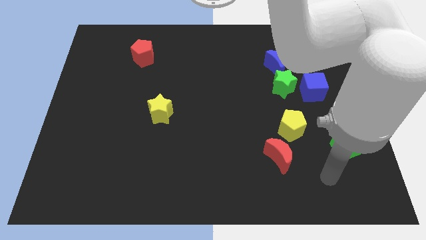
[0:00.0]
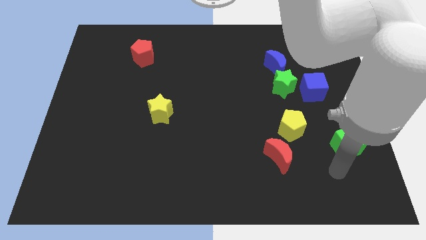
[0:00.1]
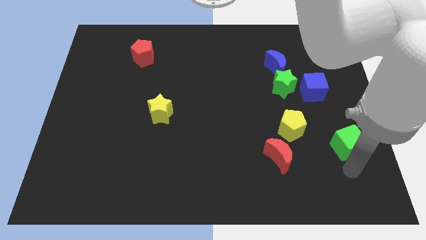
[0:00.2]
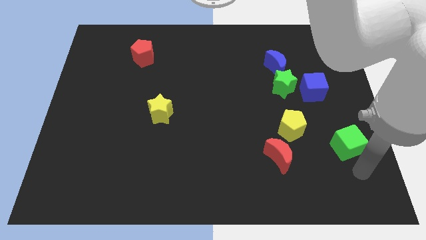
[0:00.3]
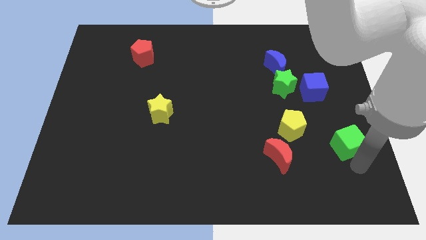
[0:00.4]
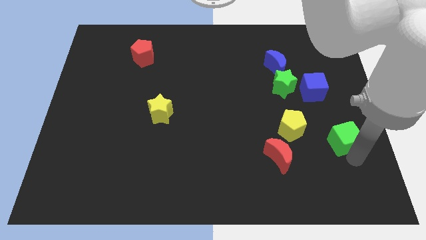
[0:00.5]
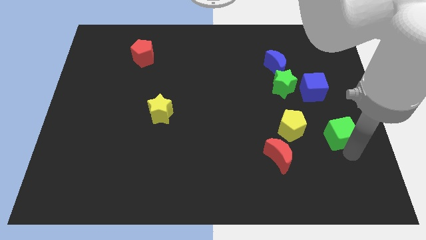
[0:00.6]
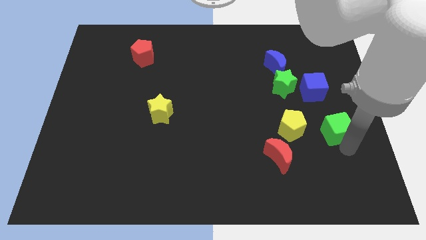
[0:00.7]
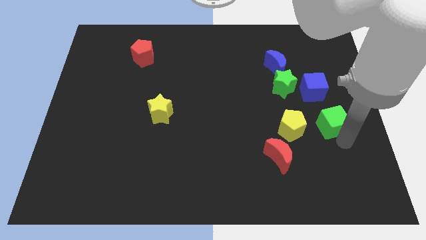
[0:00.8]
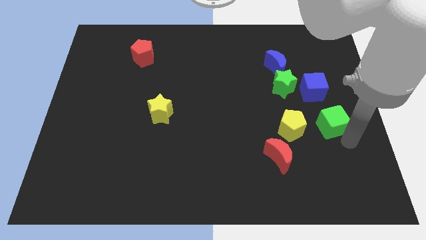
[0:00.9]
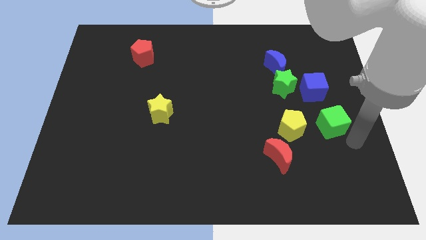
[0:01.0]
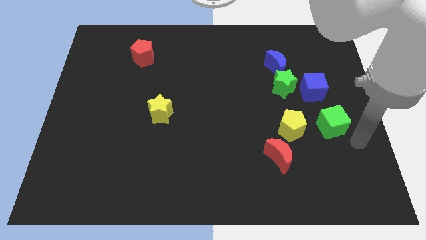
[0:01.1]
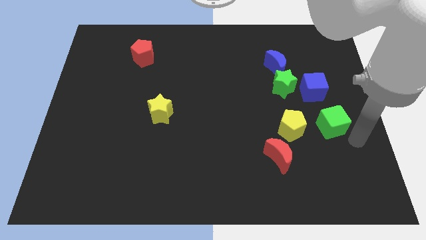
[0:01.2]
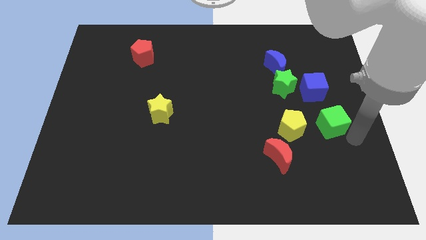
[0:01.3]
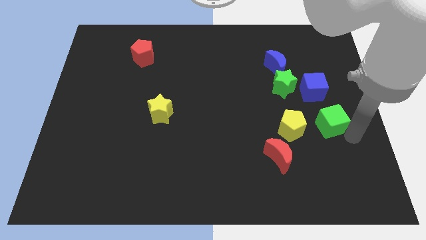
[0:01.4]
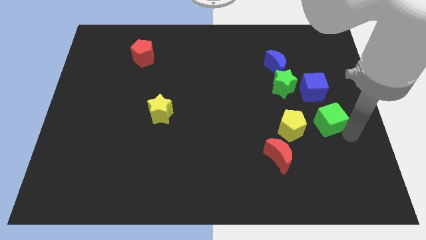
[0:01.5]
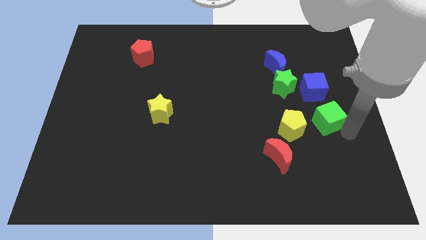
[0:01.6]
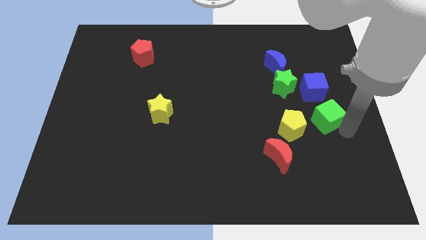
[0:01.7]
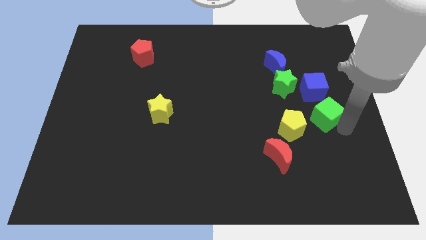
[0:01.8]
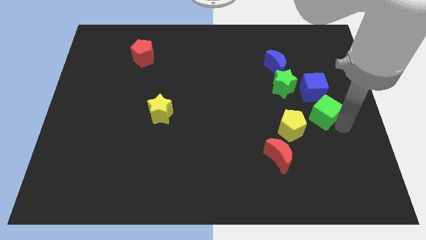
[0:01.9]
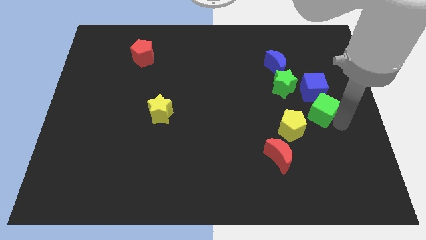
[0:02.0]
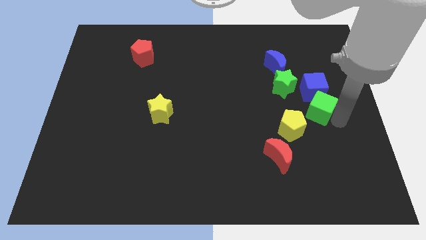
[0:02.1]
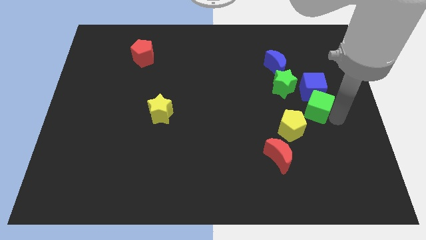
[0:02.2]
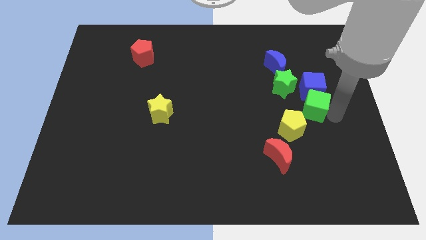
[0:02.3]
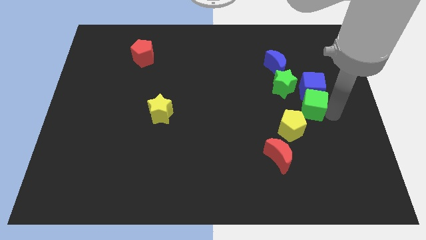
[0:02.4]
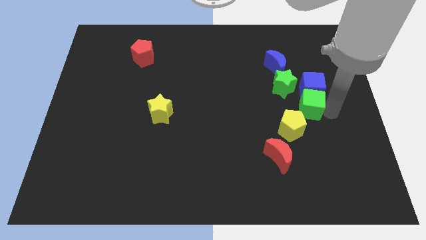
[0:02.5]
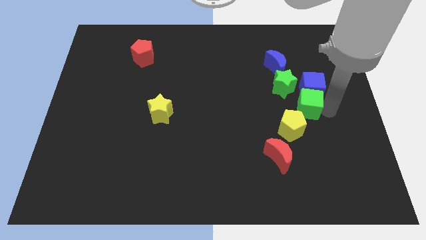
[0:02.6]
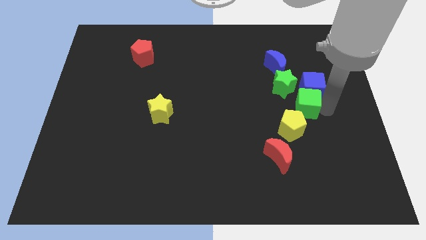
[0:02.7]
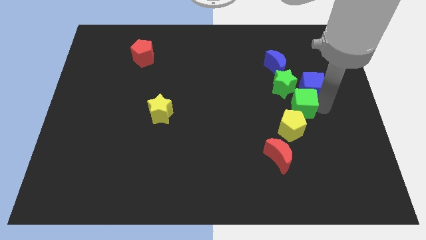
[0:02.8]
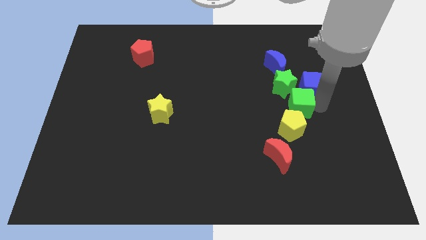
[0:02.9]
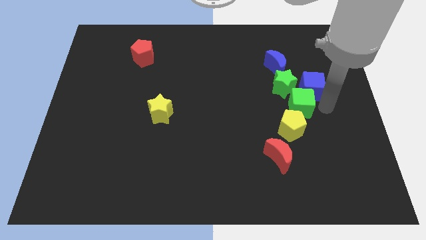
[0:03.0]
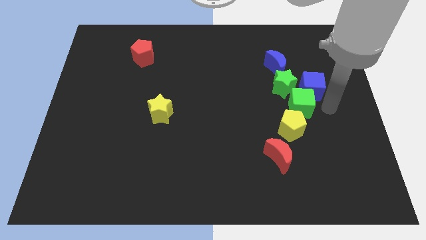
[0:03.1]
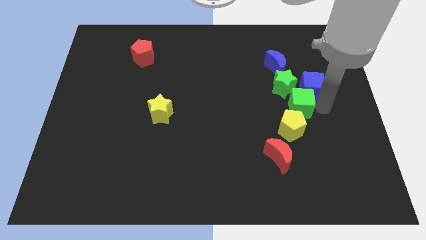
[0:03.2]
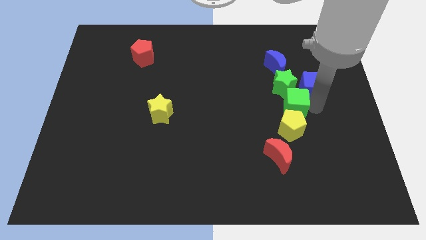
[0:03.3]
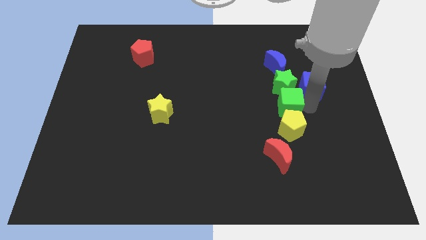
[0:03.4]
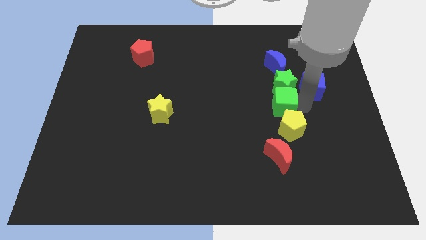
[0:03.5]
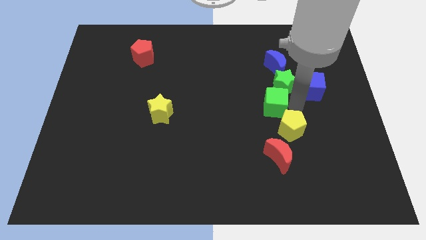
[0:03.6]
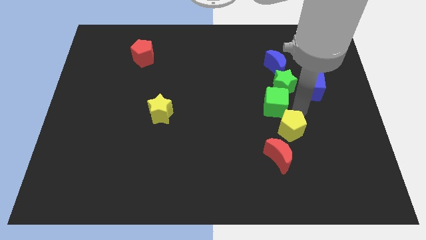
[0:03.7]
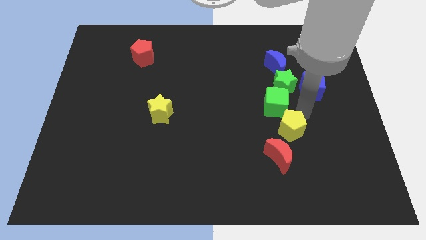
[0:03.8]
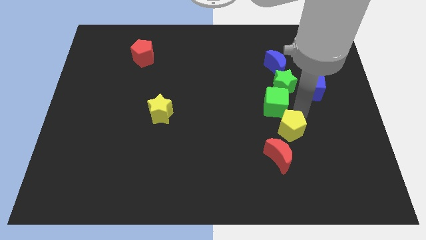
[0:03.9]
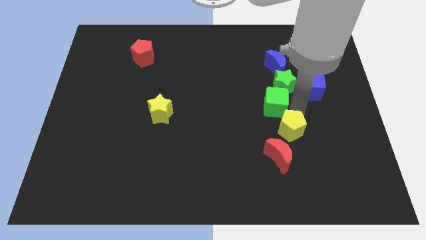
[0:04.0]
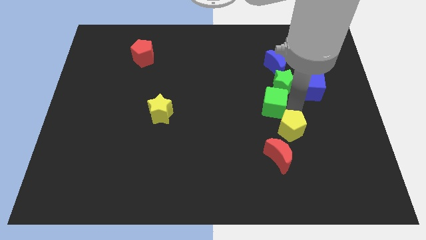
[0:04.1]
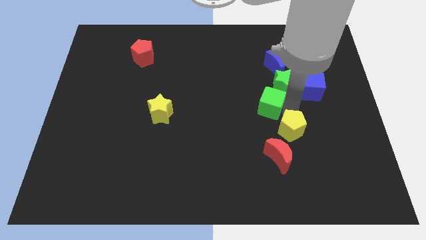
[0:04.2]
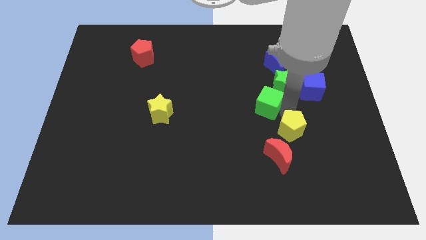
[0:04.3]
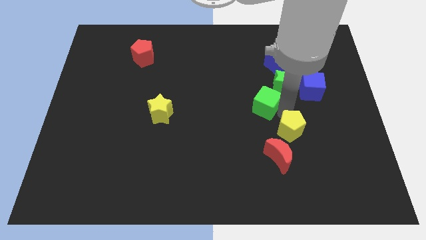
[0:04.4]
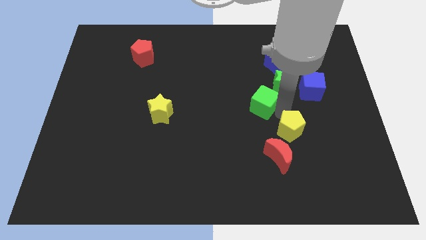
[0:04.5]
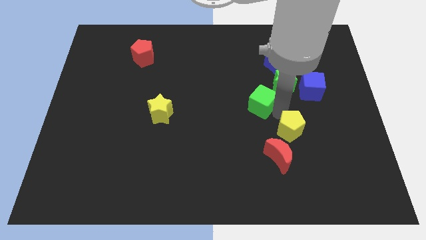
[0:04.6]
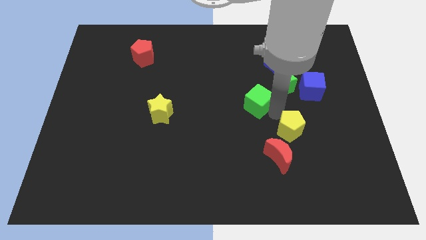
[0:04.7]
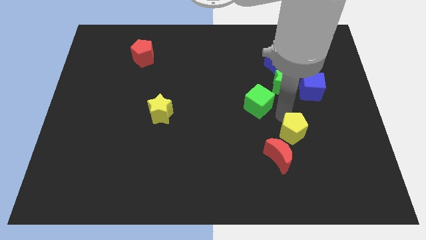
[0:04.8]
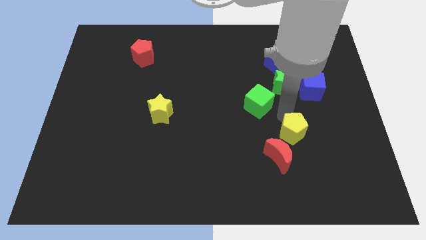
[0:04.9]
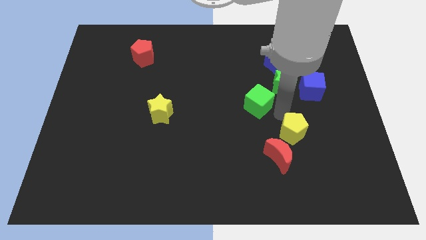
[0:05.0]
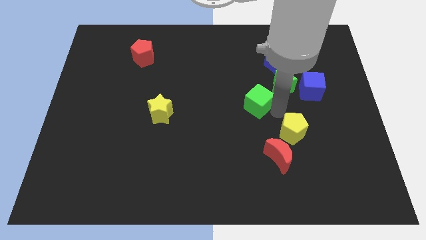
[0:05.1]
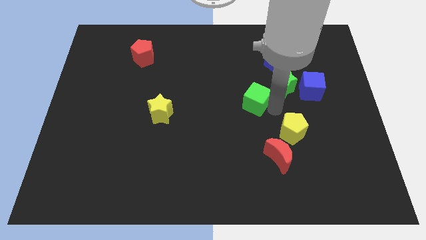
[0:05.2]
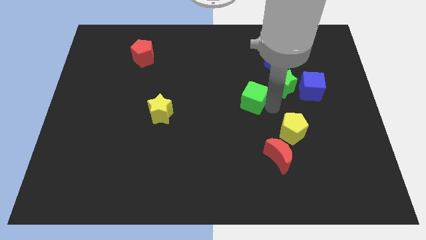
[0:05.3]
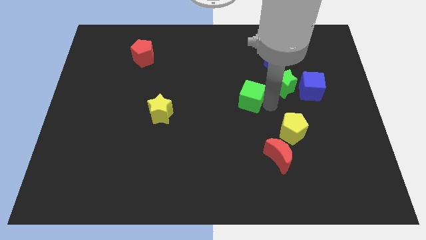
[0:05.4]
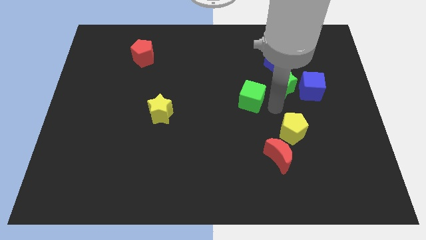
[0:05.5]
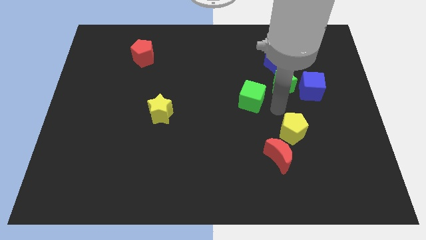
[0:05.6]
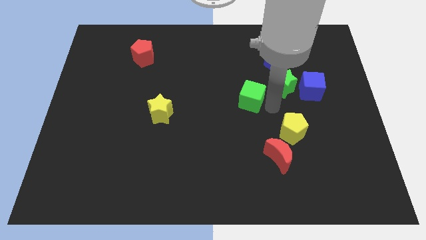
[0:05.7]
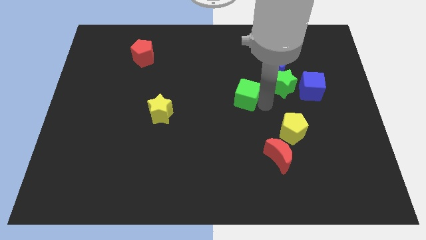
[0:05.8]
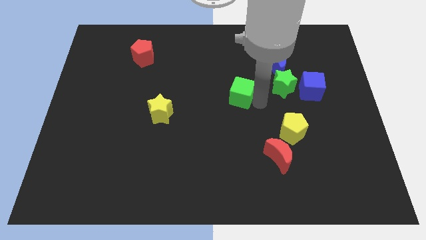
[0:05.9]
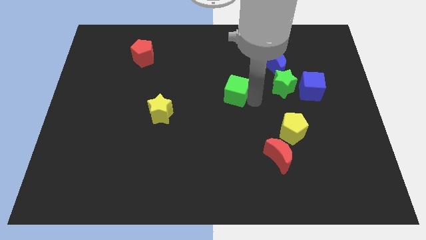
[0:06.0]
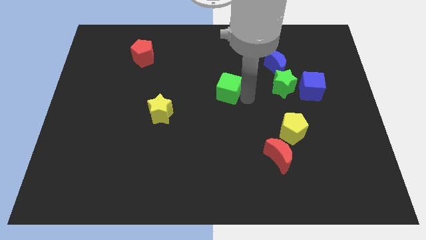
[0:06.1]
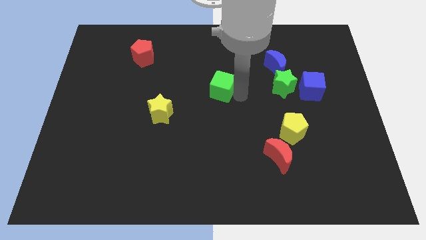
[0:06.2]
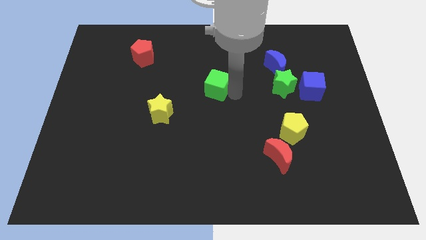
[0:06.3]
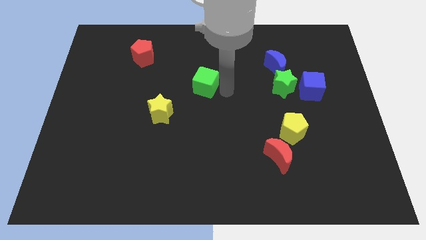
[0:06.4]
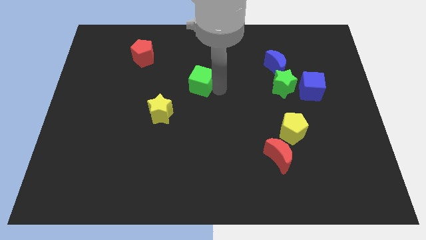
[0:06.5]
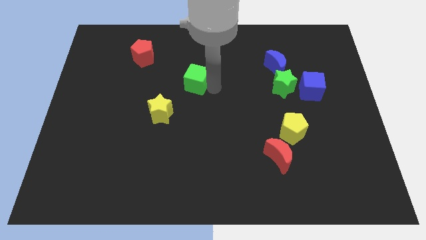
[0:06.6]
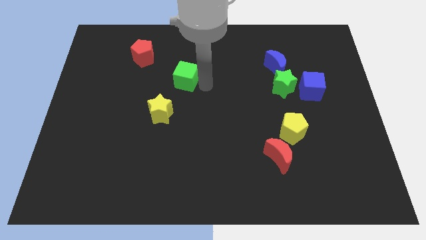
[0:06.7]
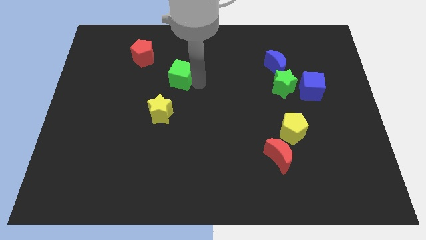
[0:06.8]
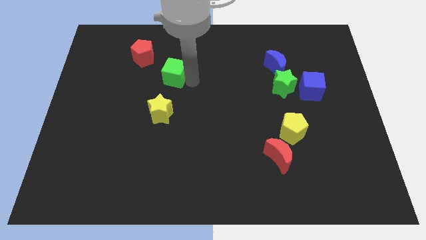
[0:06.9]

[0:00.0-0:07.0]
push the green cube diagonally down and to the right of the red pentagon

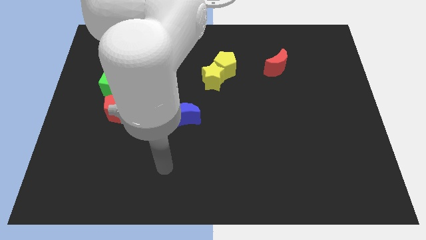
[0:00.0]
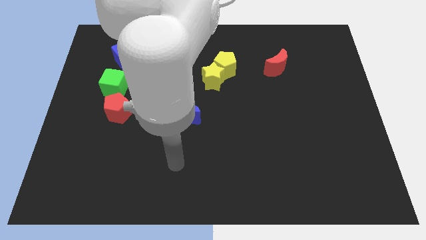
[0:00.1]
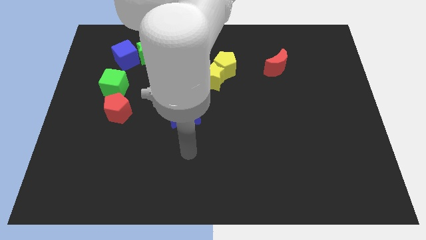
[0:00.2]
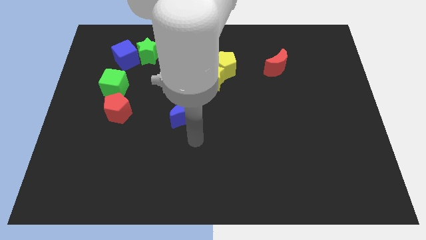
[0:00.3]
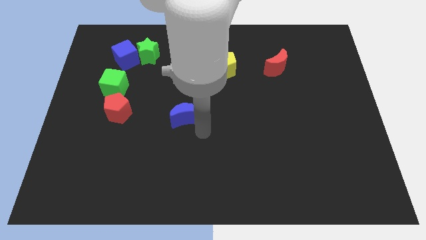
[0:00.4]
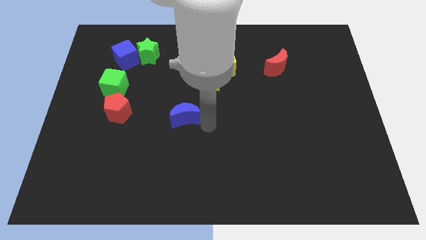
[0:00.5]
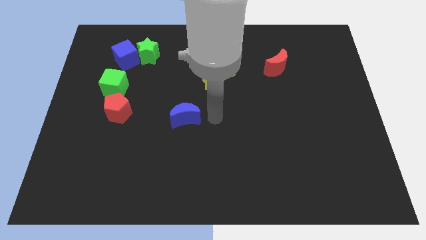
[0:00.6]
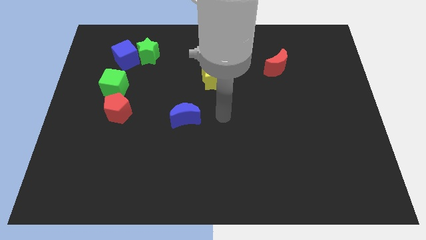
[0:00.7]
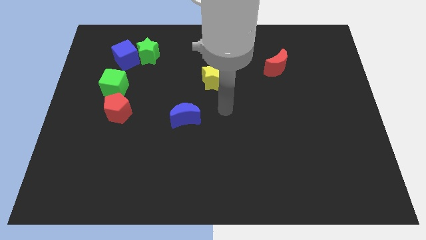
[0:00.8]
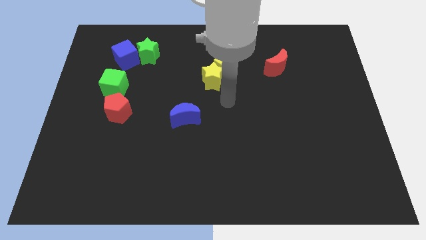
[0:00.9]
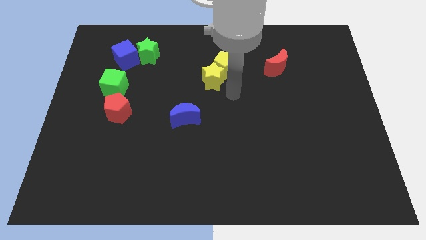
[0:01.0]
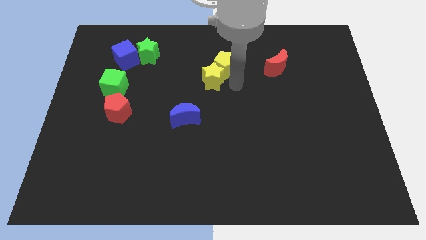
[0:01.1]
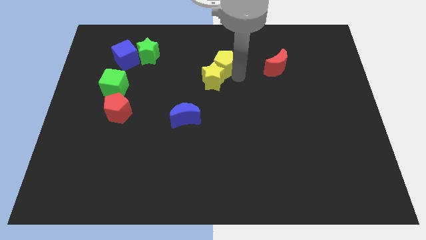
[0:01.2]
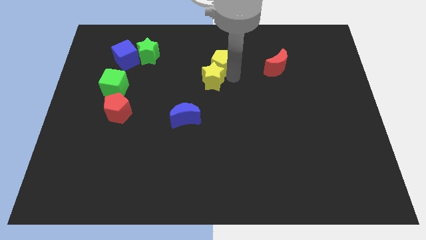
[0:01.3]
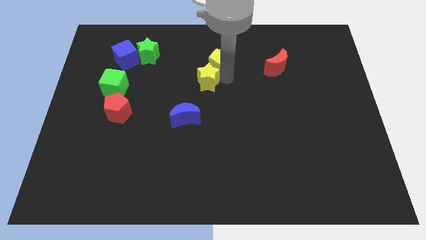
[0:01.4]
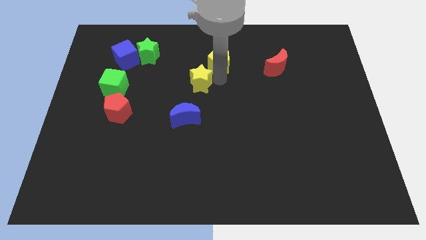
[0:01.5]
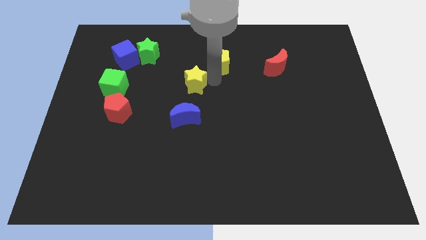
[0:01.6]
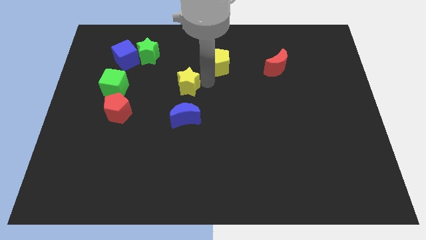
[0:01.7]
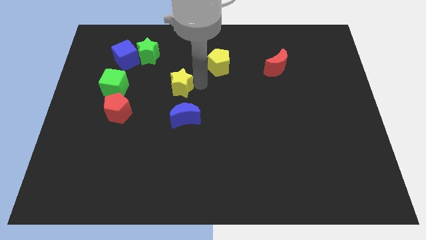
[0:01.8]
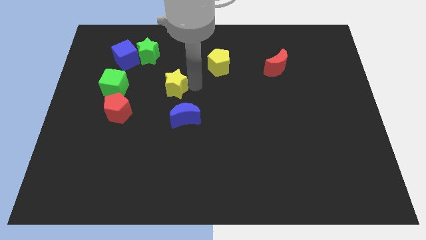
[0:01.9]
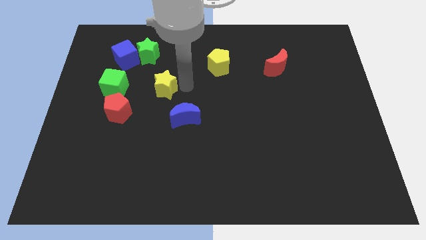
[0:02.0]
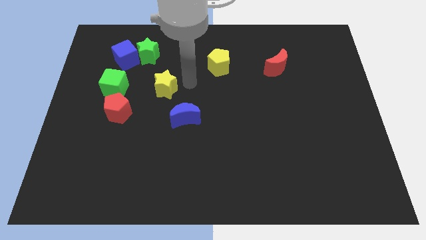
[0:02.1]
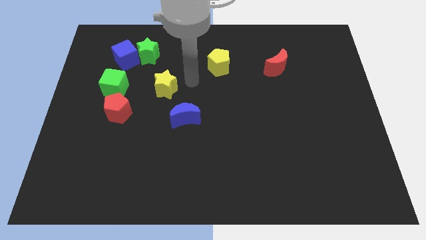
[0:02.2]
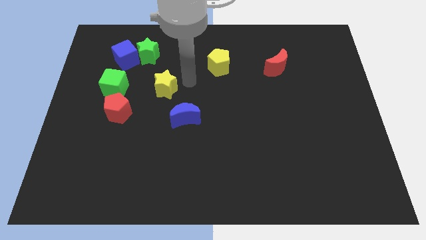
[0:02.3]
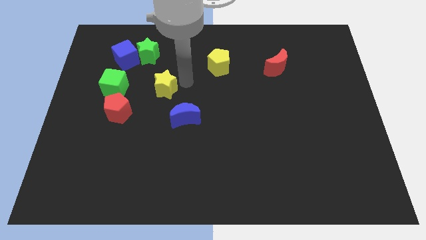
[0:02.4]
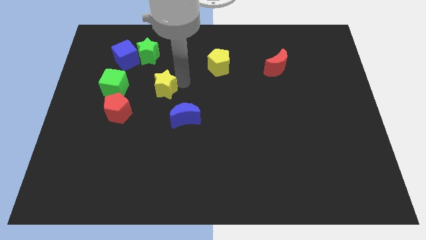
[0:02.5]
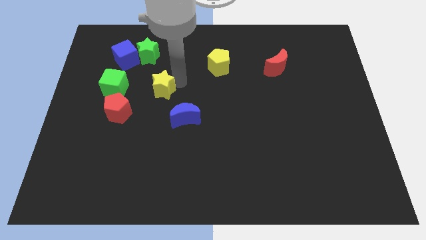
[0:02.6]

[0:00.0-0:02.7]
move the yellow star to the top right of the red pentagon
